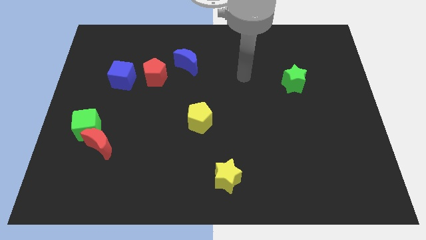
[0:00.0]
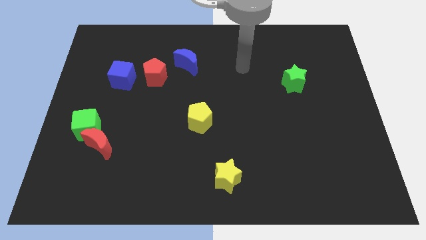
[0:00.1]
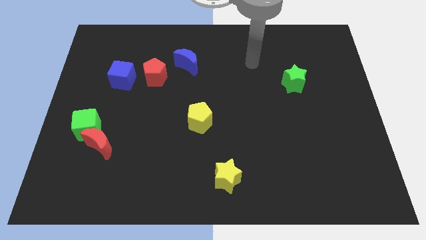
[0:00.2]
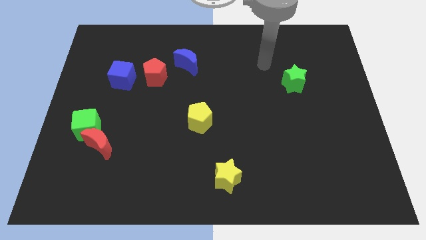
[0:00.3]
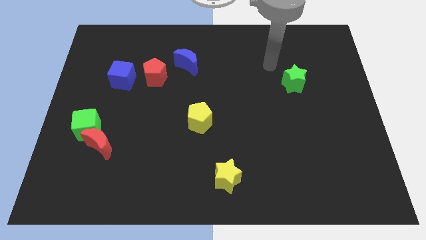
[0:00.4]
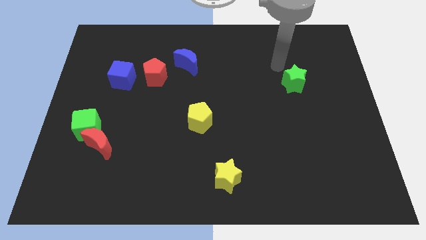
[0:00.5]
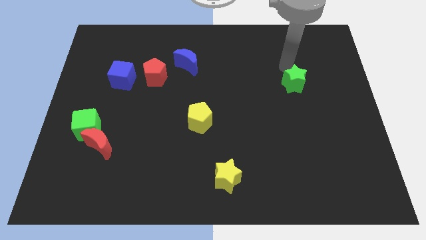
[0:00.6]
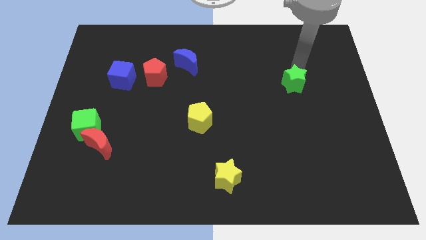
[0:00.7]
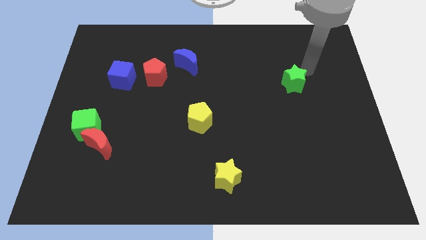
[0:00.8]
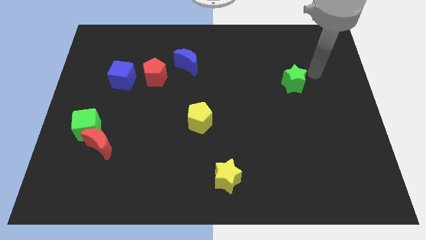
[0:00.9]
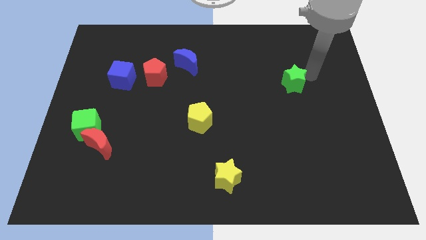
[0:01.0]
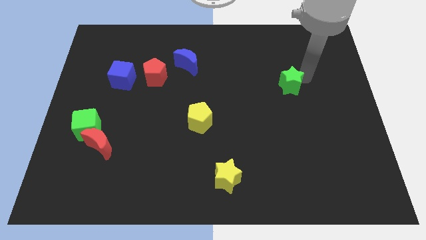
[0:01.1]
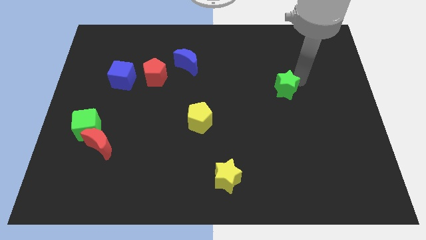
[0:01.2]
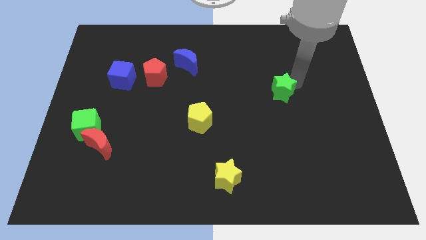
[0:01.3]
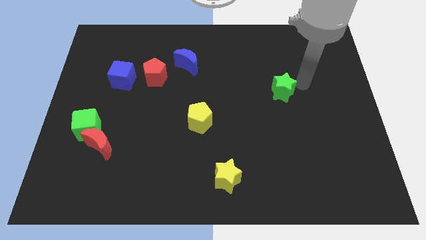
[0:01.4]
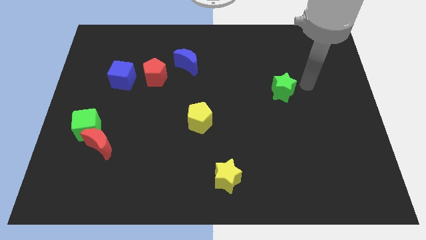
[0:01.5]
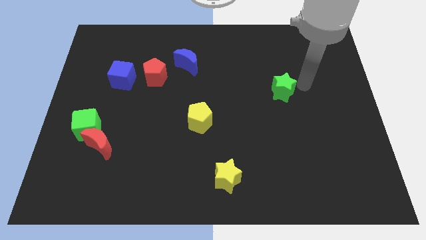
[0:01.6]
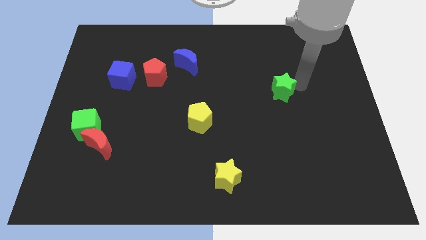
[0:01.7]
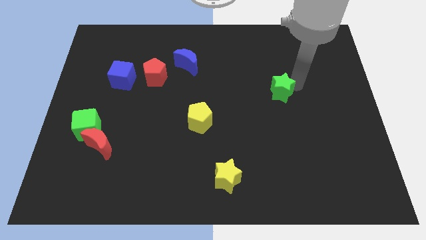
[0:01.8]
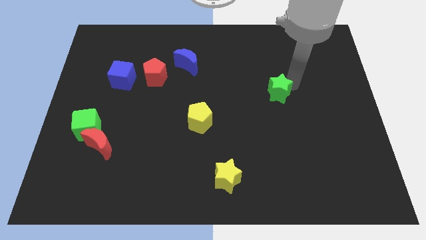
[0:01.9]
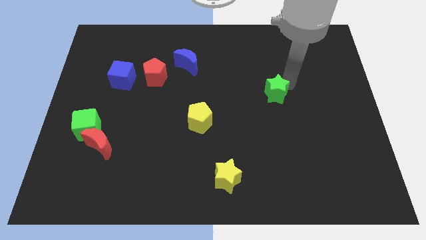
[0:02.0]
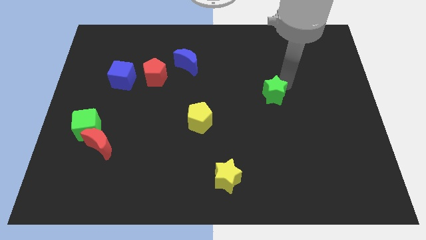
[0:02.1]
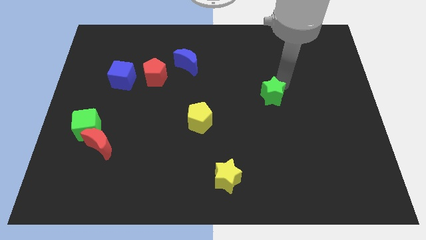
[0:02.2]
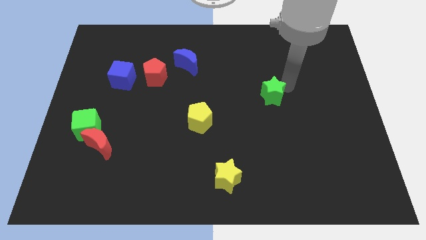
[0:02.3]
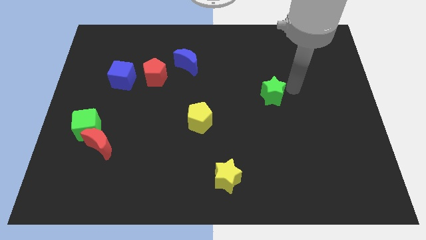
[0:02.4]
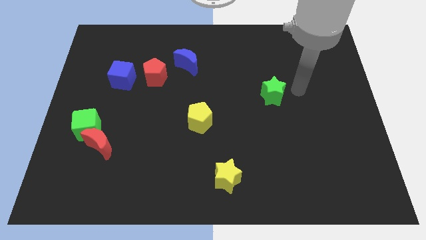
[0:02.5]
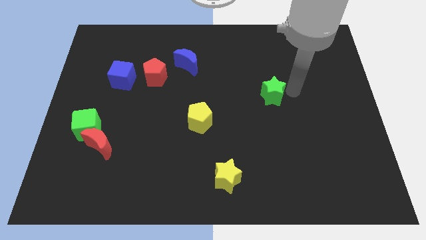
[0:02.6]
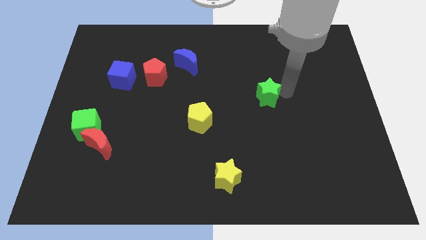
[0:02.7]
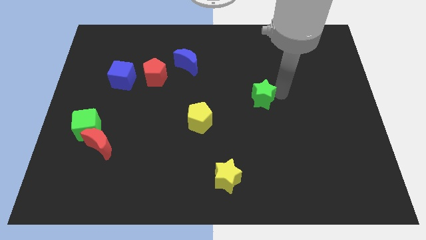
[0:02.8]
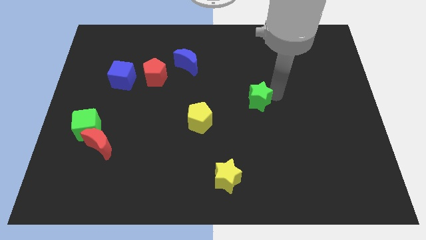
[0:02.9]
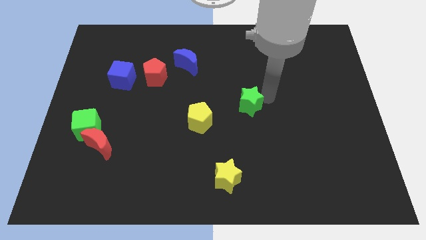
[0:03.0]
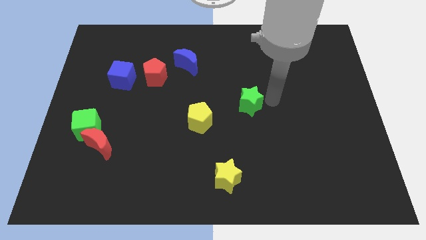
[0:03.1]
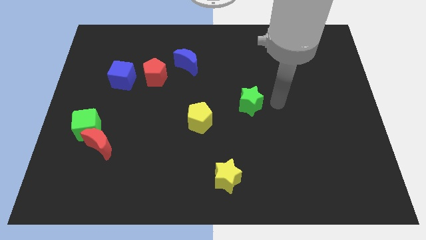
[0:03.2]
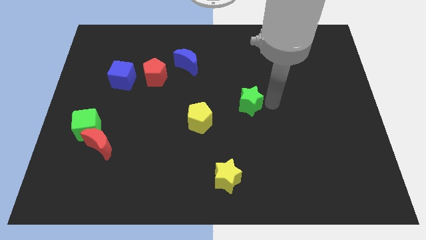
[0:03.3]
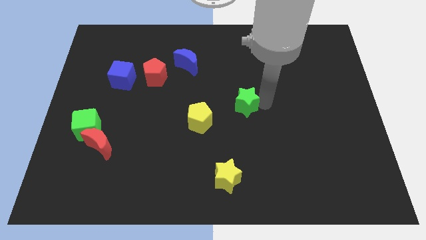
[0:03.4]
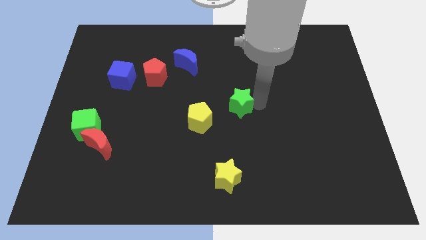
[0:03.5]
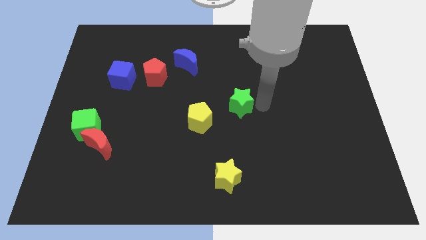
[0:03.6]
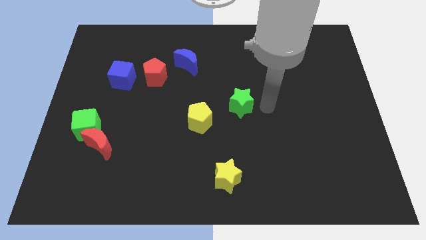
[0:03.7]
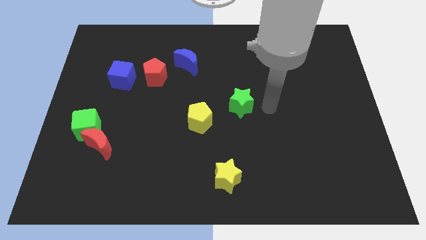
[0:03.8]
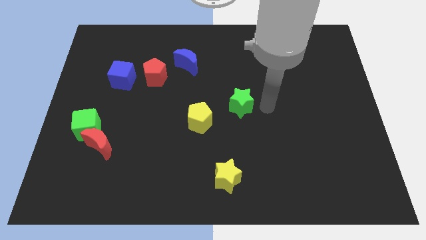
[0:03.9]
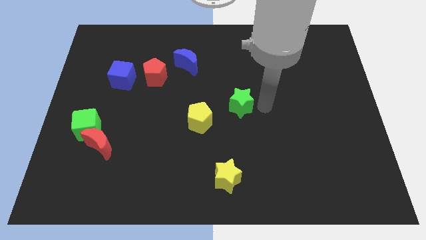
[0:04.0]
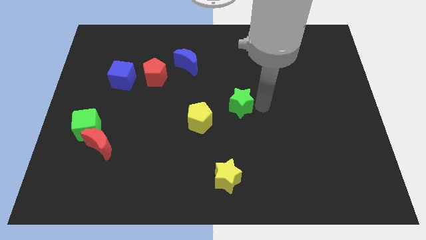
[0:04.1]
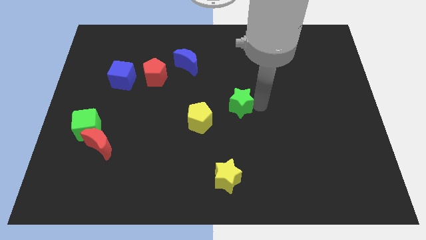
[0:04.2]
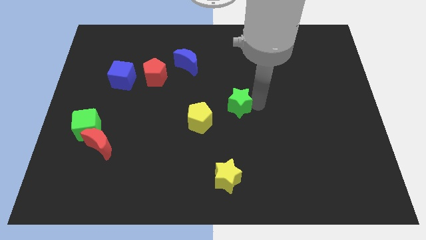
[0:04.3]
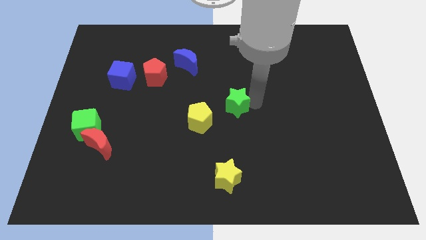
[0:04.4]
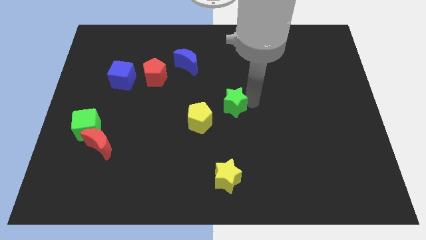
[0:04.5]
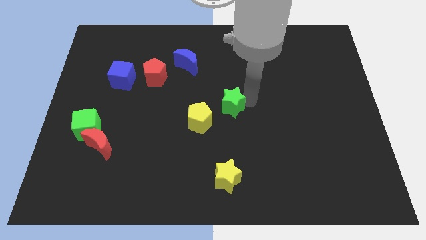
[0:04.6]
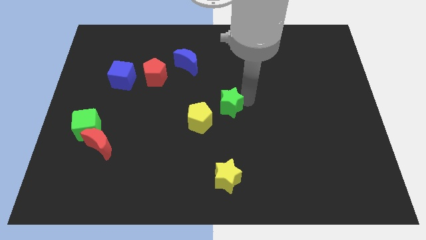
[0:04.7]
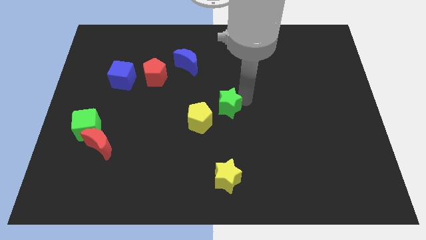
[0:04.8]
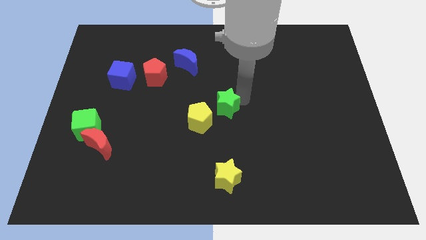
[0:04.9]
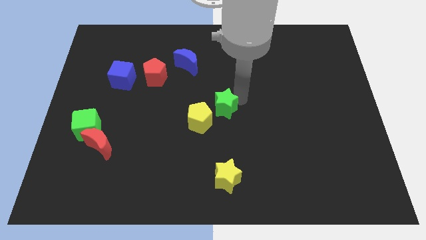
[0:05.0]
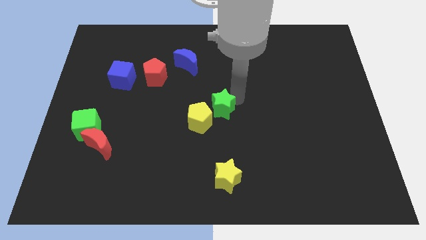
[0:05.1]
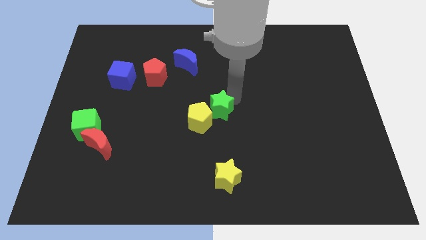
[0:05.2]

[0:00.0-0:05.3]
move the green star to the yellow pentagon

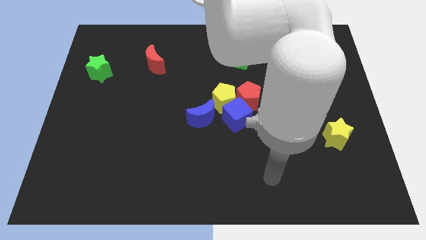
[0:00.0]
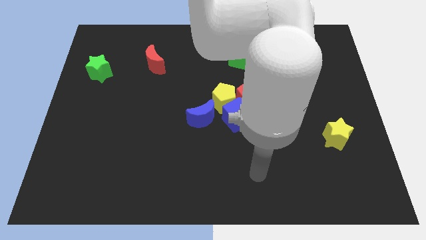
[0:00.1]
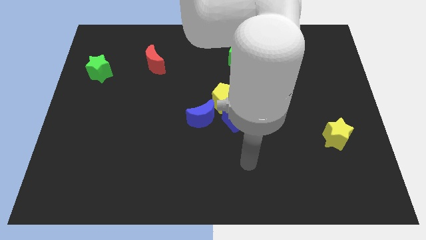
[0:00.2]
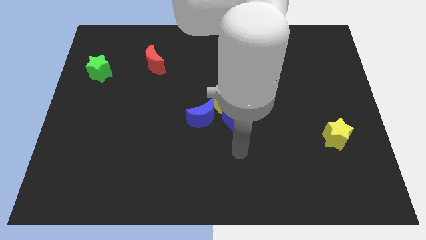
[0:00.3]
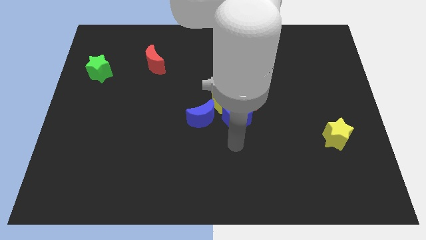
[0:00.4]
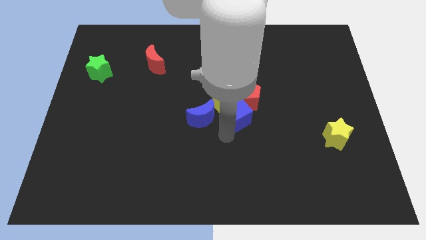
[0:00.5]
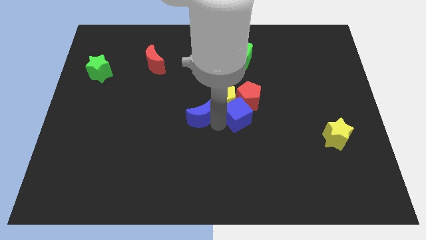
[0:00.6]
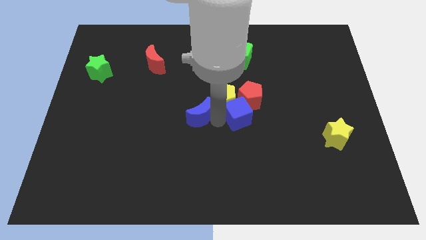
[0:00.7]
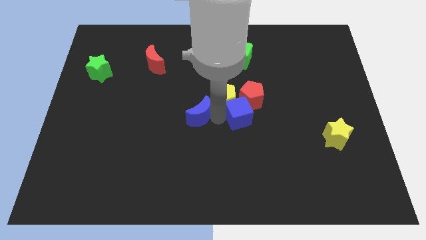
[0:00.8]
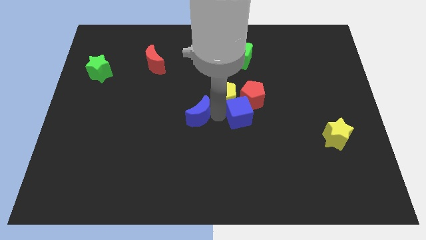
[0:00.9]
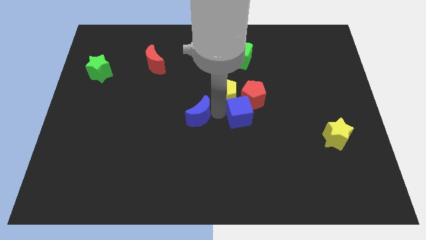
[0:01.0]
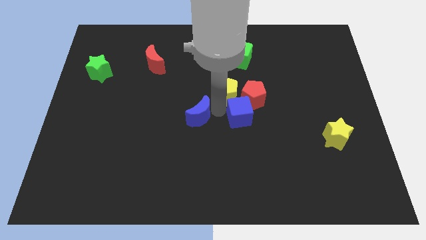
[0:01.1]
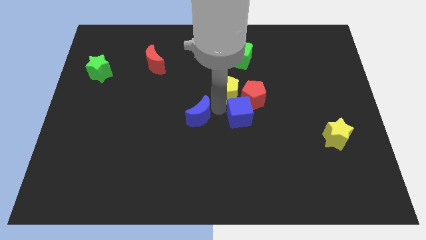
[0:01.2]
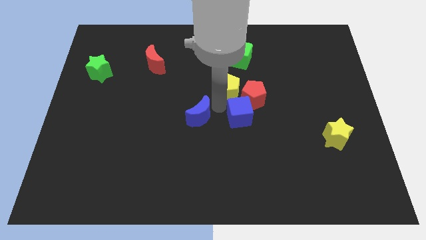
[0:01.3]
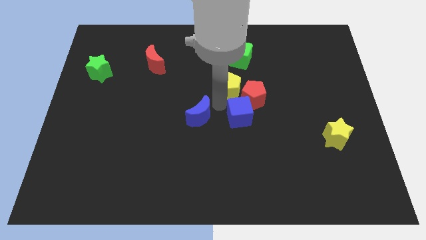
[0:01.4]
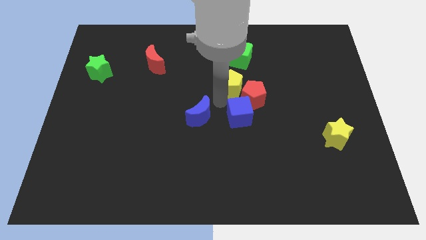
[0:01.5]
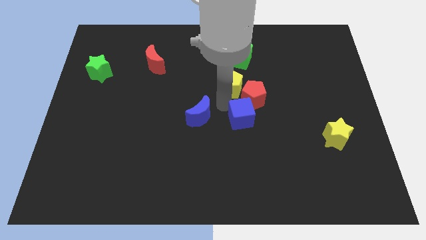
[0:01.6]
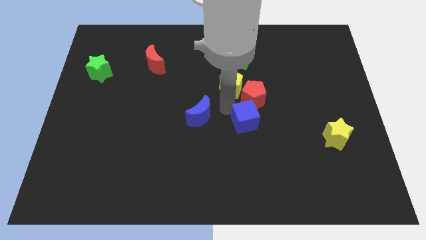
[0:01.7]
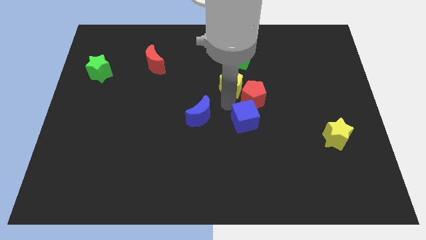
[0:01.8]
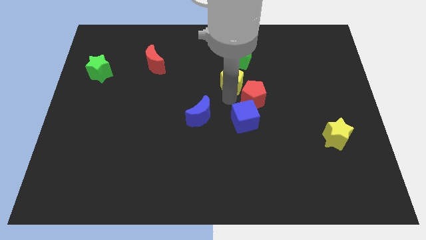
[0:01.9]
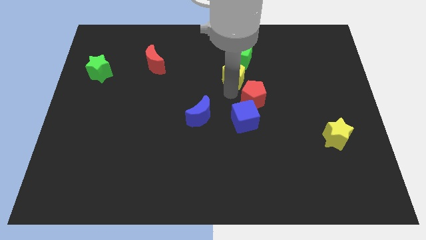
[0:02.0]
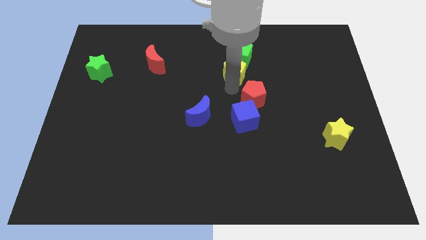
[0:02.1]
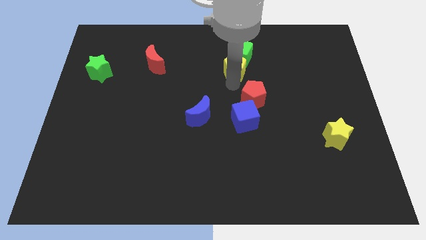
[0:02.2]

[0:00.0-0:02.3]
slide the yellow pentagon close to the green cube
